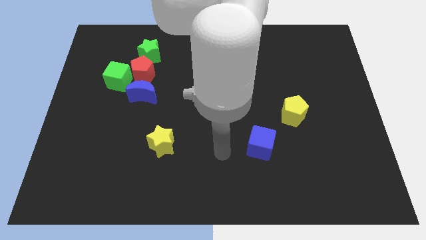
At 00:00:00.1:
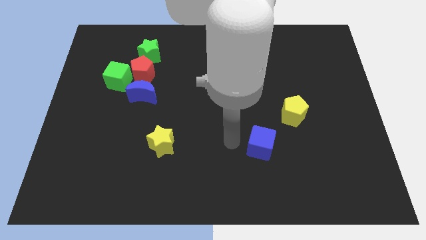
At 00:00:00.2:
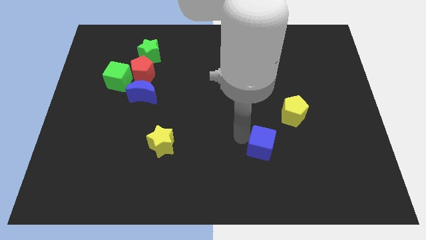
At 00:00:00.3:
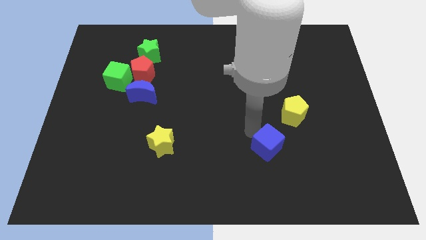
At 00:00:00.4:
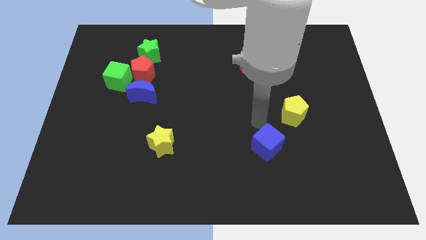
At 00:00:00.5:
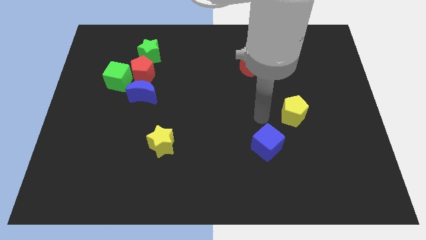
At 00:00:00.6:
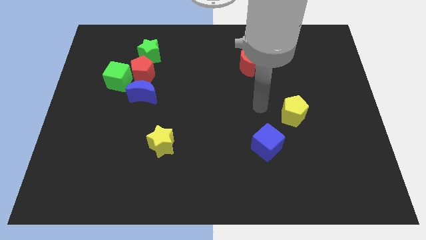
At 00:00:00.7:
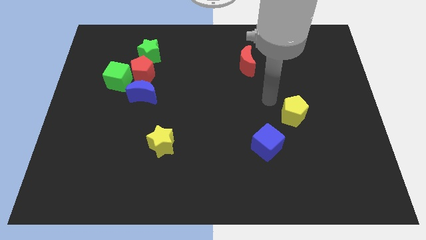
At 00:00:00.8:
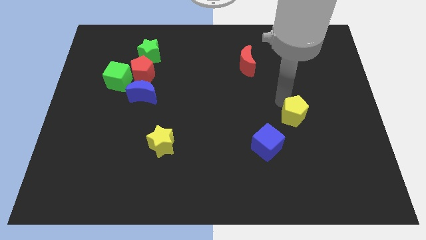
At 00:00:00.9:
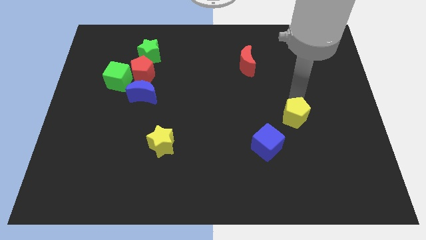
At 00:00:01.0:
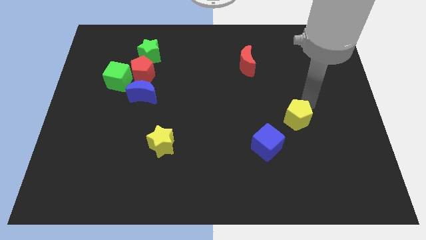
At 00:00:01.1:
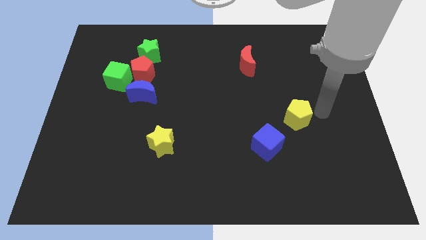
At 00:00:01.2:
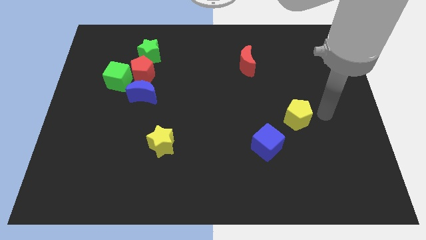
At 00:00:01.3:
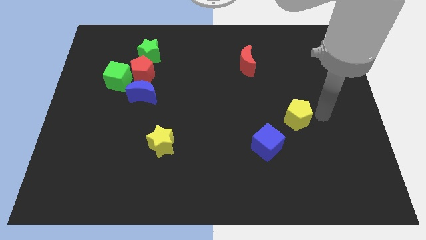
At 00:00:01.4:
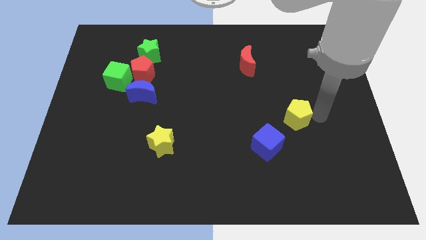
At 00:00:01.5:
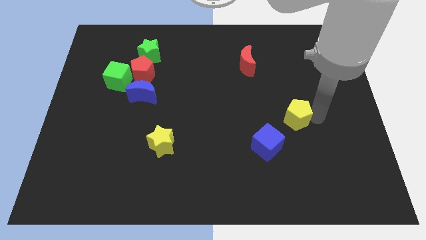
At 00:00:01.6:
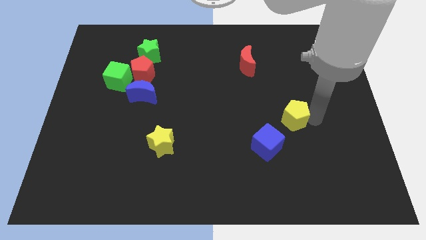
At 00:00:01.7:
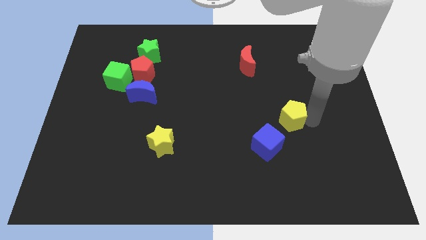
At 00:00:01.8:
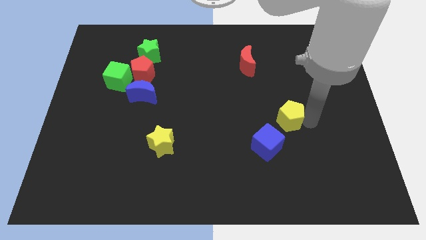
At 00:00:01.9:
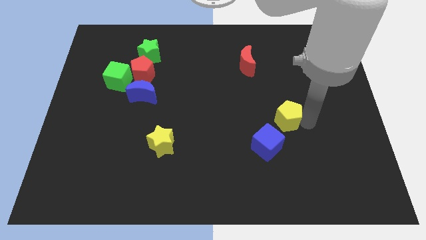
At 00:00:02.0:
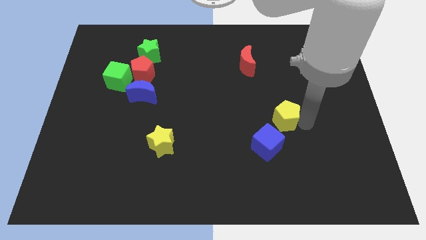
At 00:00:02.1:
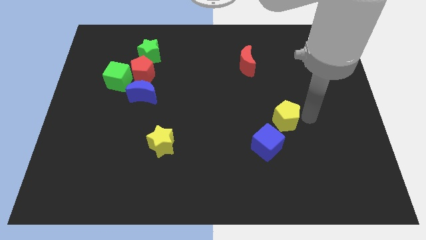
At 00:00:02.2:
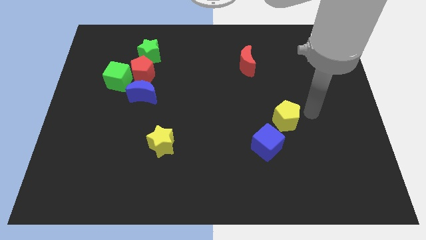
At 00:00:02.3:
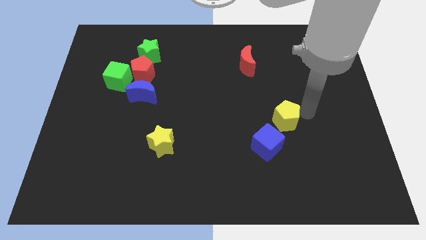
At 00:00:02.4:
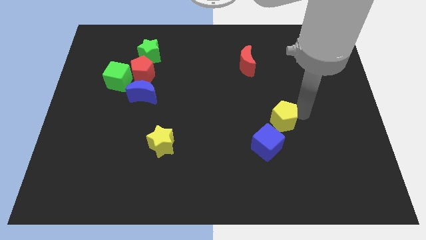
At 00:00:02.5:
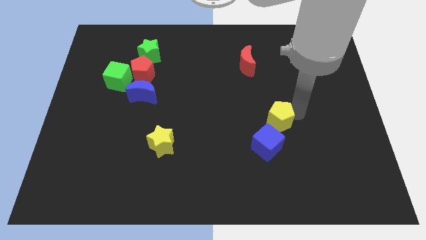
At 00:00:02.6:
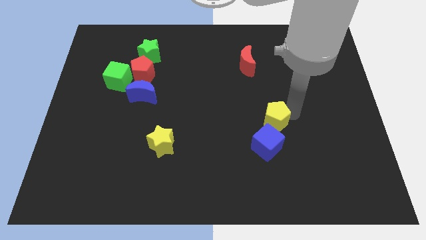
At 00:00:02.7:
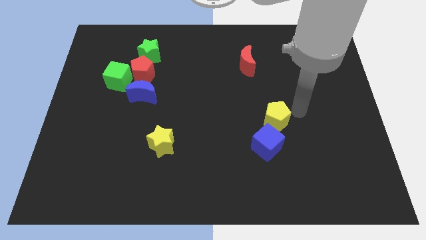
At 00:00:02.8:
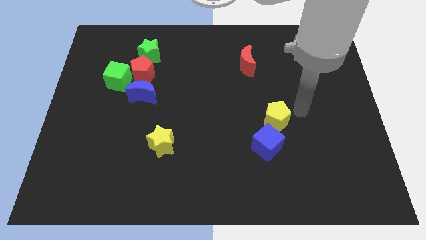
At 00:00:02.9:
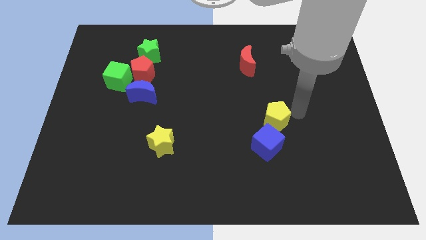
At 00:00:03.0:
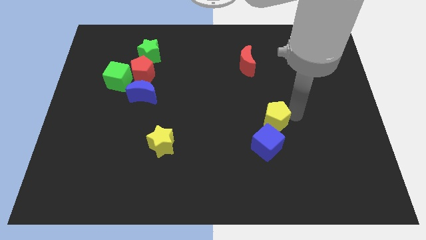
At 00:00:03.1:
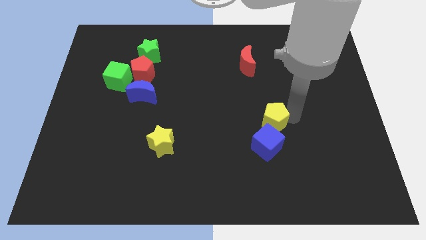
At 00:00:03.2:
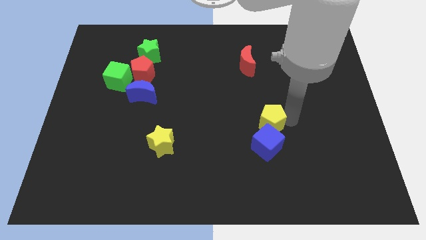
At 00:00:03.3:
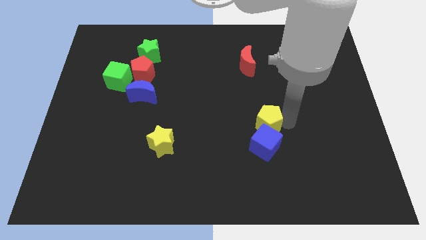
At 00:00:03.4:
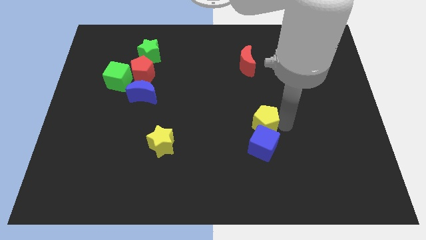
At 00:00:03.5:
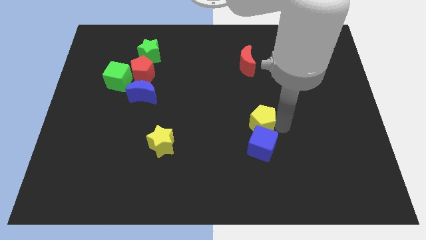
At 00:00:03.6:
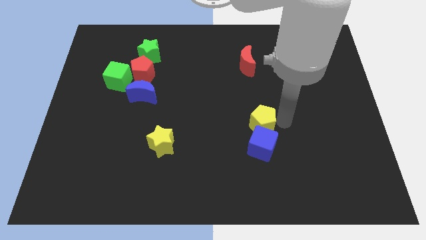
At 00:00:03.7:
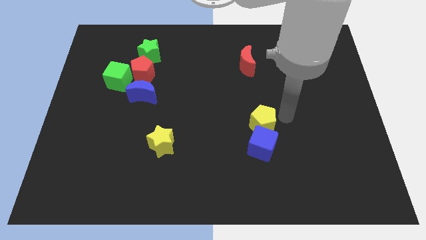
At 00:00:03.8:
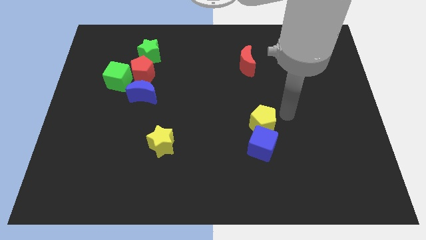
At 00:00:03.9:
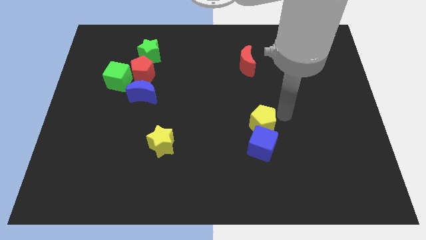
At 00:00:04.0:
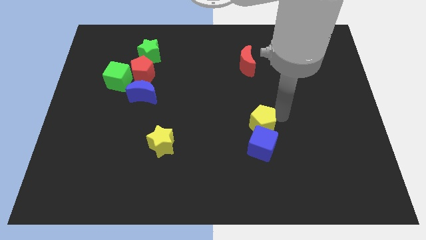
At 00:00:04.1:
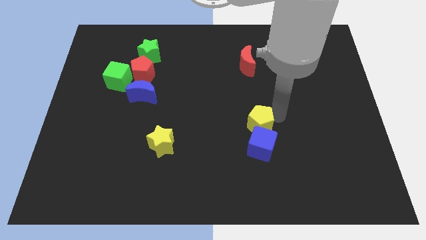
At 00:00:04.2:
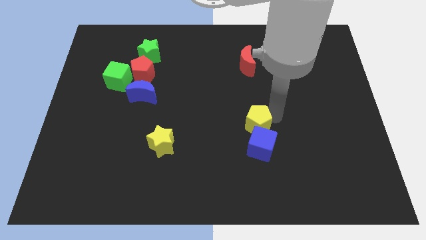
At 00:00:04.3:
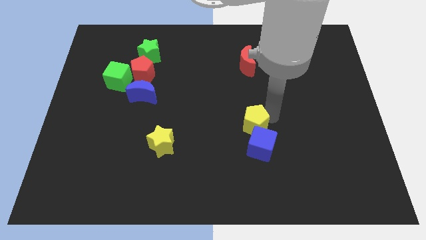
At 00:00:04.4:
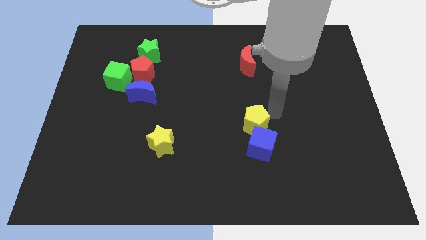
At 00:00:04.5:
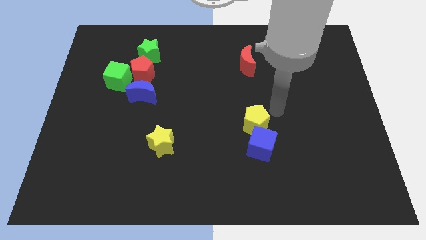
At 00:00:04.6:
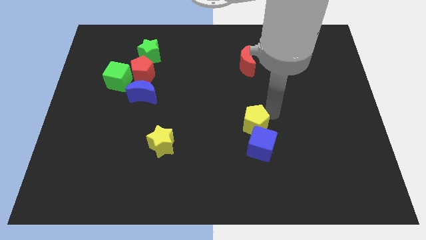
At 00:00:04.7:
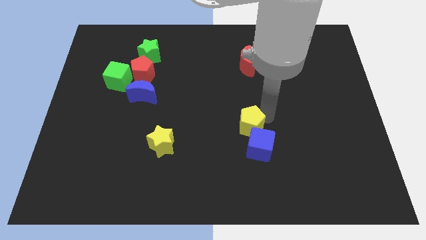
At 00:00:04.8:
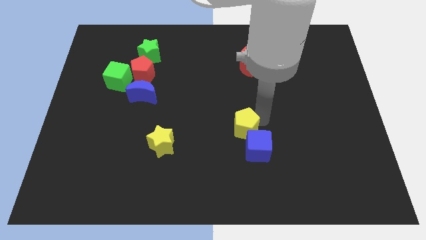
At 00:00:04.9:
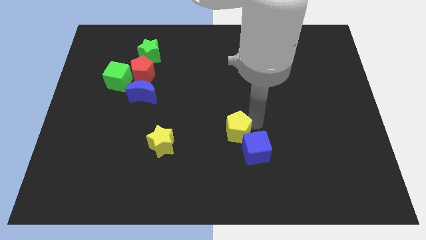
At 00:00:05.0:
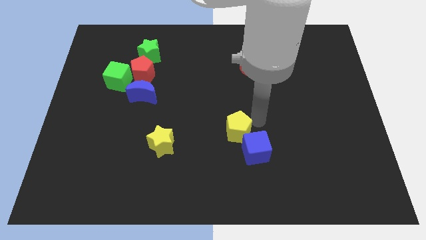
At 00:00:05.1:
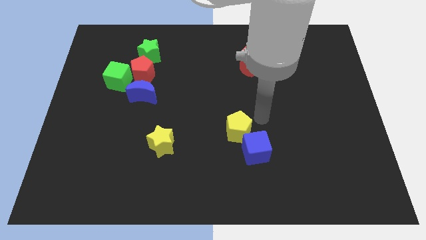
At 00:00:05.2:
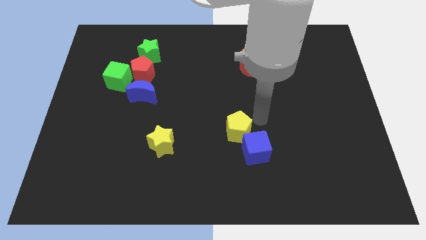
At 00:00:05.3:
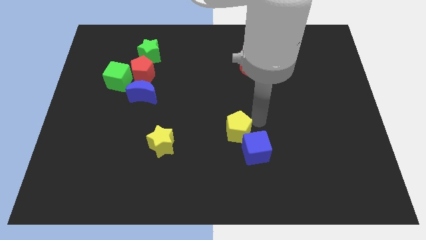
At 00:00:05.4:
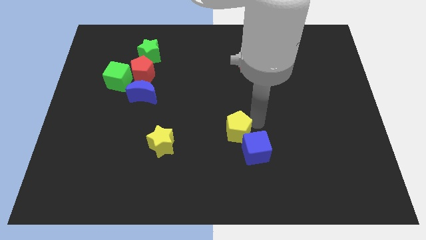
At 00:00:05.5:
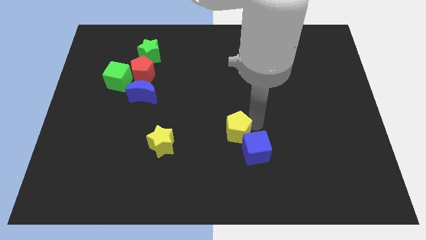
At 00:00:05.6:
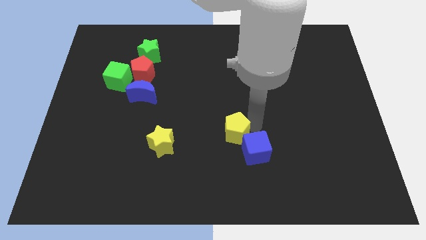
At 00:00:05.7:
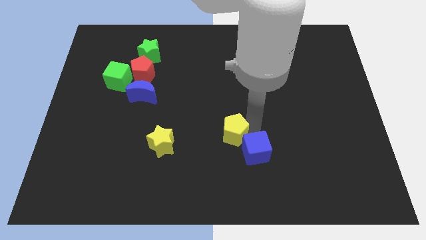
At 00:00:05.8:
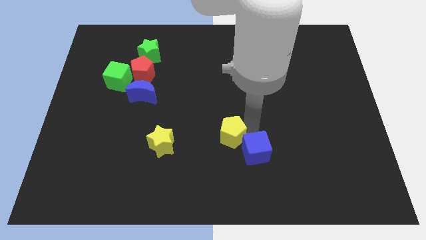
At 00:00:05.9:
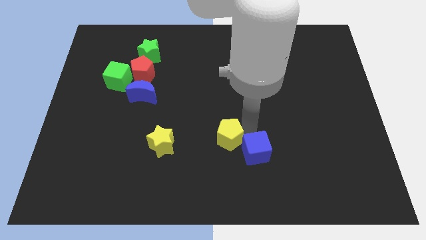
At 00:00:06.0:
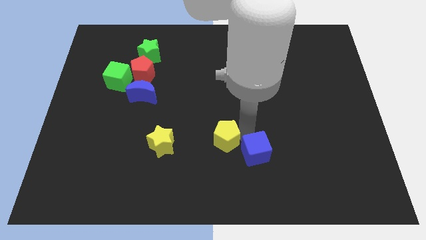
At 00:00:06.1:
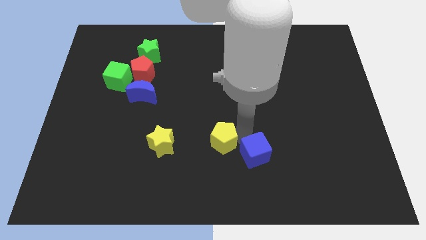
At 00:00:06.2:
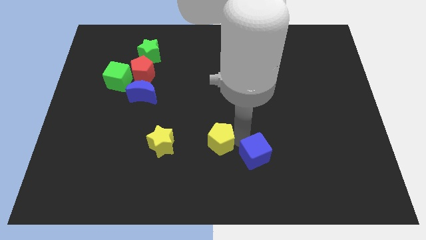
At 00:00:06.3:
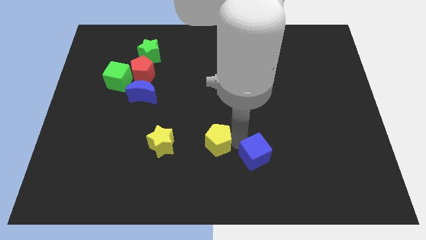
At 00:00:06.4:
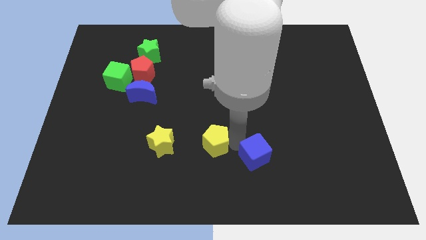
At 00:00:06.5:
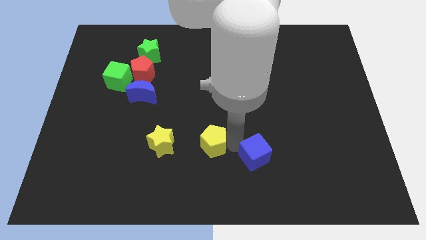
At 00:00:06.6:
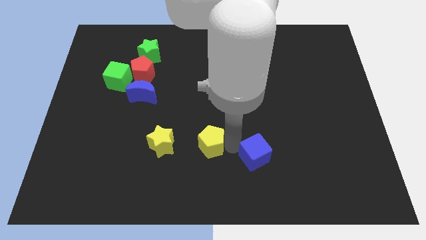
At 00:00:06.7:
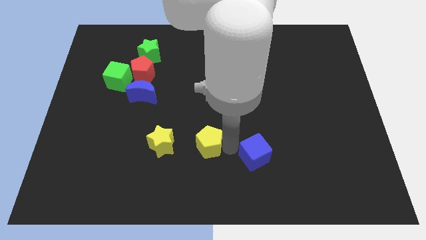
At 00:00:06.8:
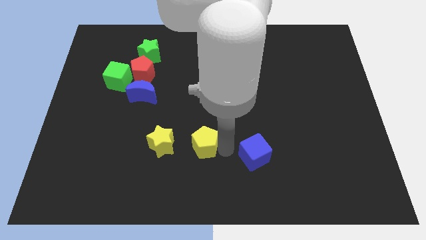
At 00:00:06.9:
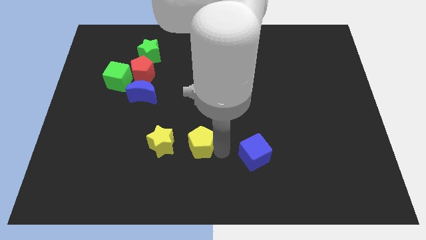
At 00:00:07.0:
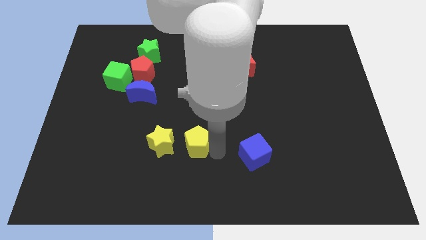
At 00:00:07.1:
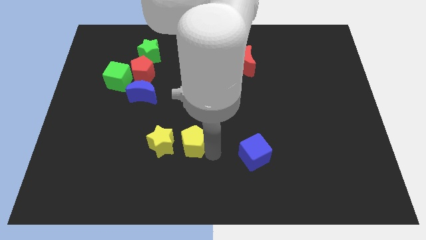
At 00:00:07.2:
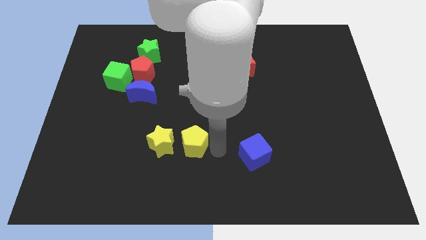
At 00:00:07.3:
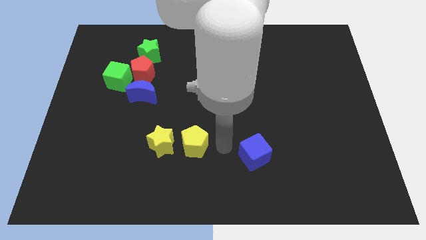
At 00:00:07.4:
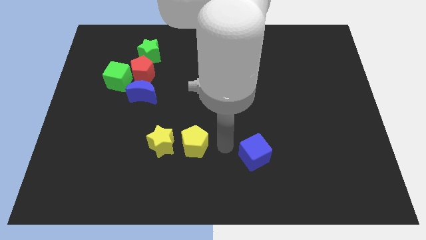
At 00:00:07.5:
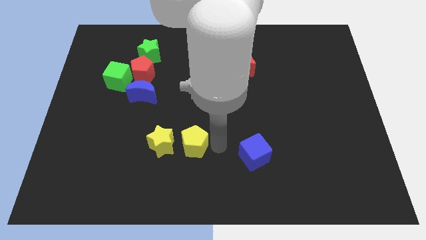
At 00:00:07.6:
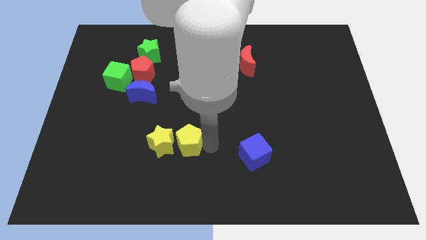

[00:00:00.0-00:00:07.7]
push the yellow pentagon next to the yellow star
